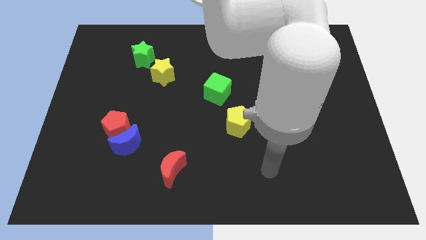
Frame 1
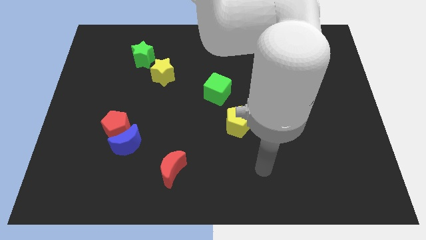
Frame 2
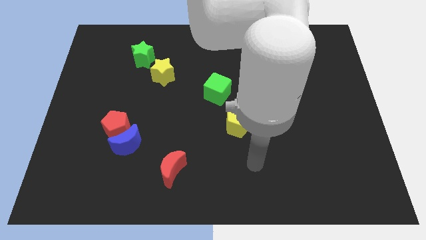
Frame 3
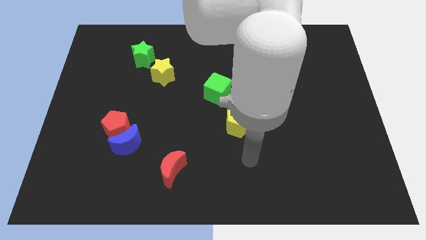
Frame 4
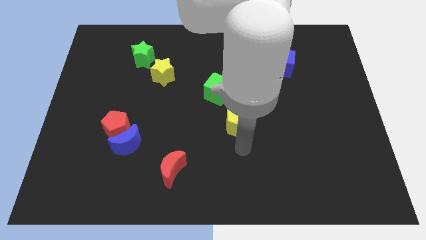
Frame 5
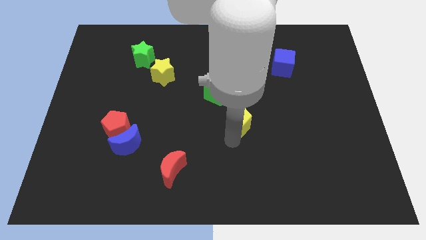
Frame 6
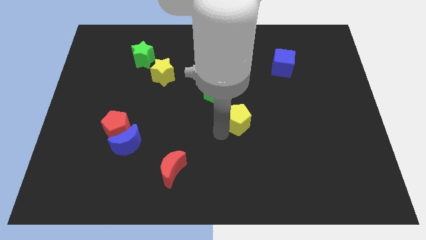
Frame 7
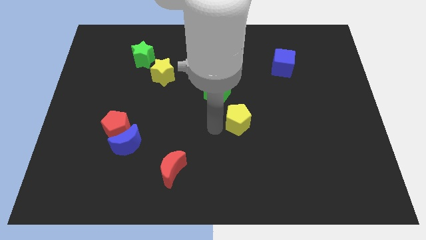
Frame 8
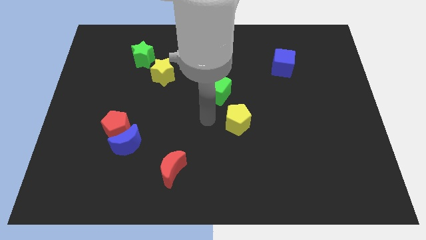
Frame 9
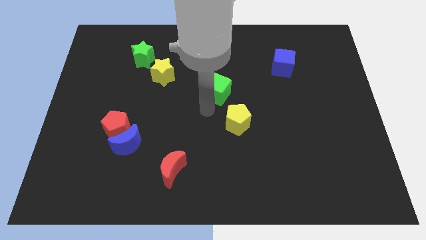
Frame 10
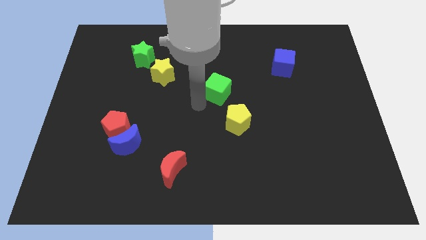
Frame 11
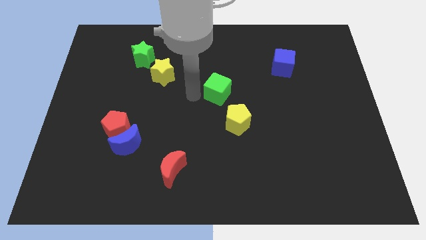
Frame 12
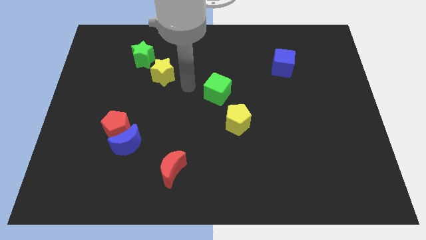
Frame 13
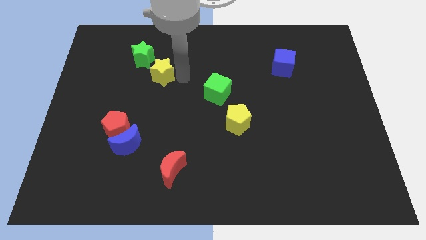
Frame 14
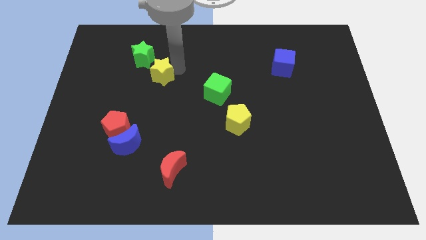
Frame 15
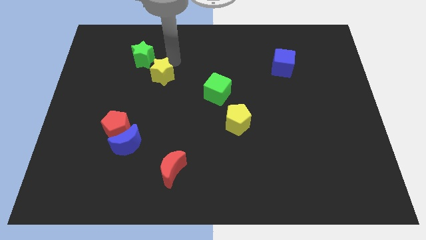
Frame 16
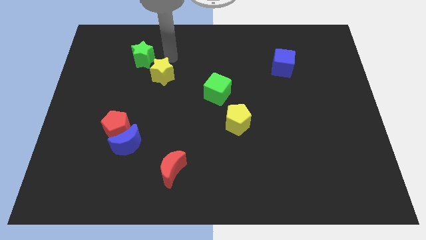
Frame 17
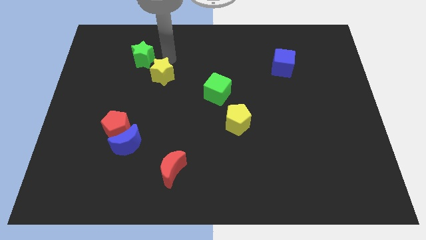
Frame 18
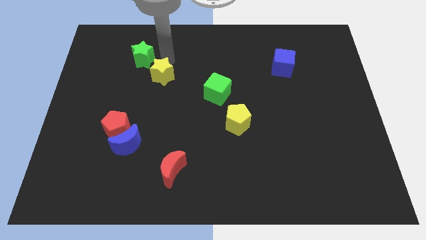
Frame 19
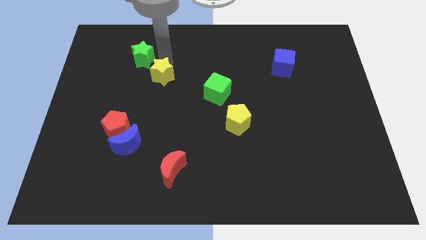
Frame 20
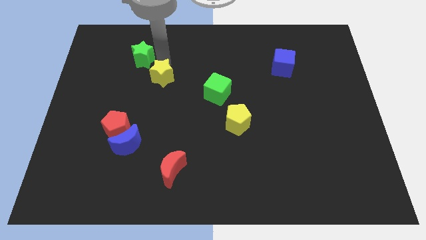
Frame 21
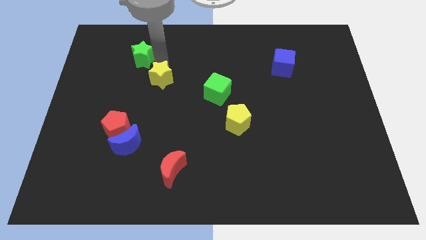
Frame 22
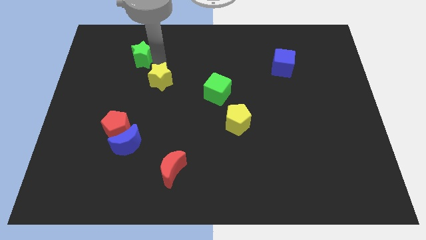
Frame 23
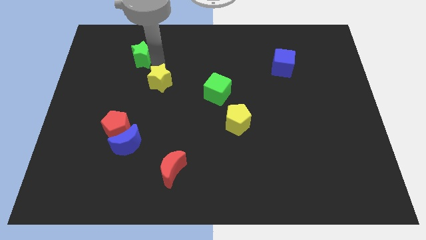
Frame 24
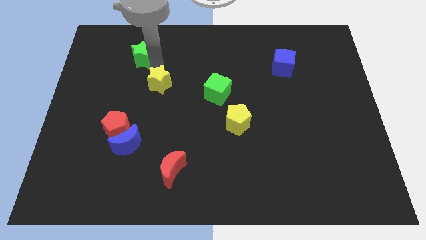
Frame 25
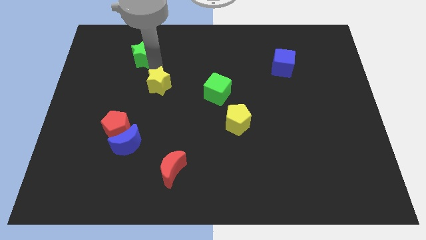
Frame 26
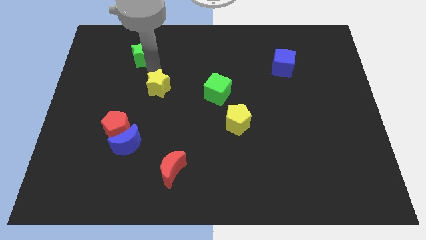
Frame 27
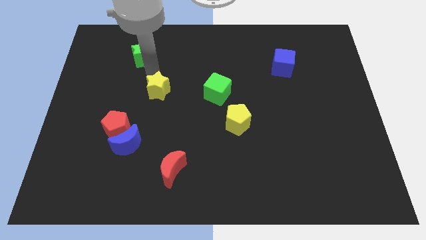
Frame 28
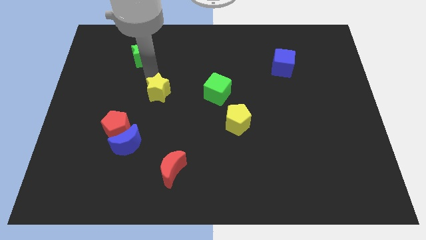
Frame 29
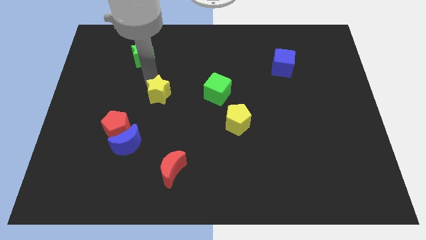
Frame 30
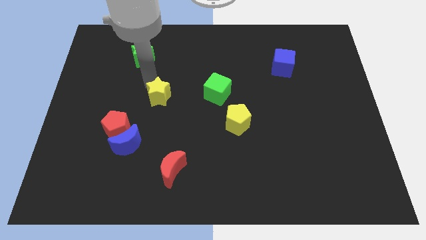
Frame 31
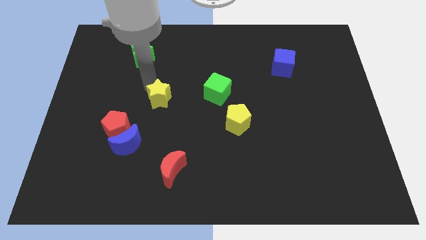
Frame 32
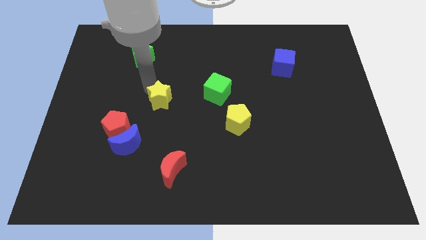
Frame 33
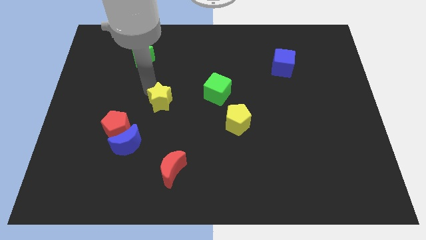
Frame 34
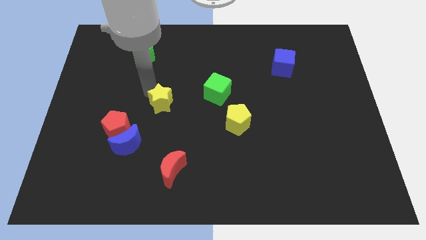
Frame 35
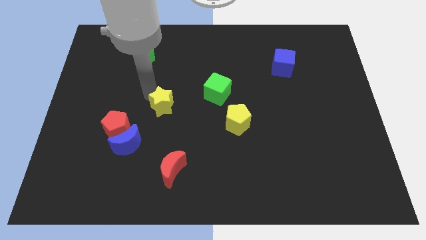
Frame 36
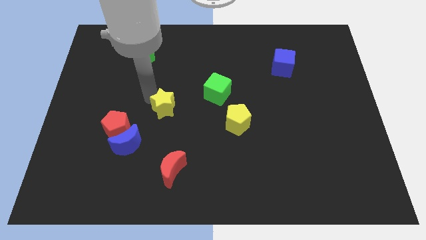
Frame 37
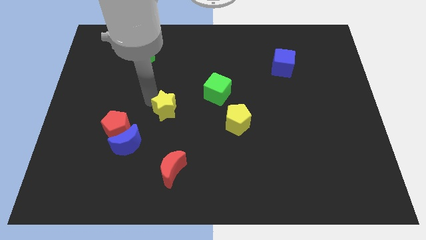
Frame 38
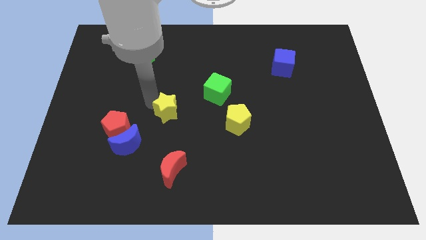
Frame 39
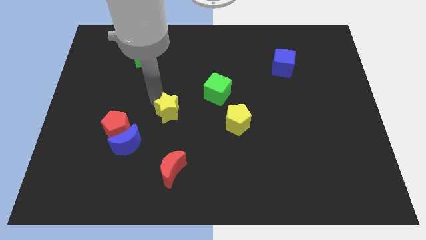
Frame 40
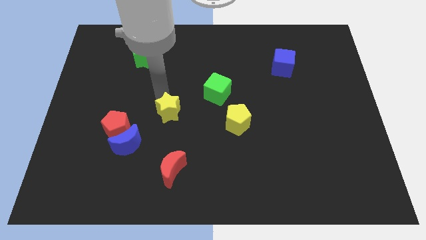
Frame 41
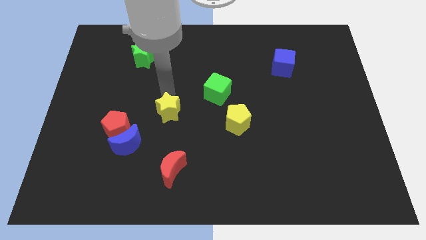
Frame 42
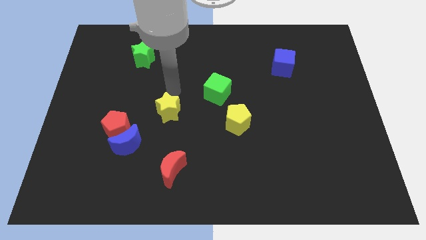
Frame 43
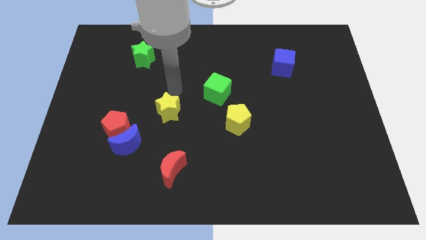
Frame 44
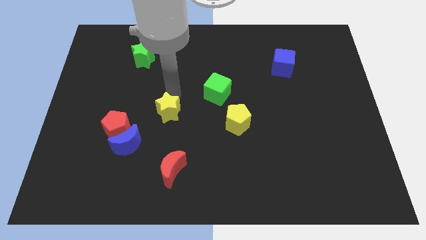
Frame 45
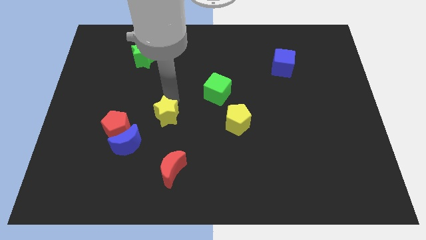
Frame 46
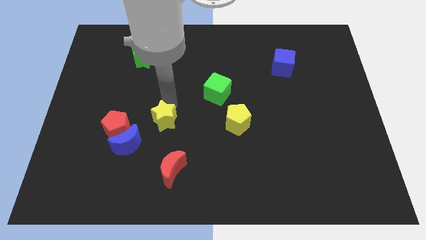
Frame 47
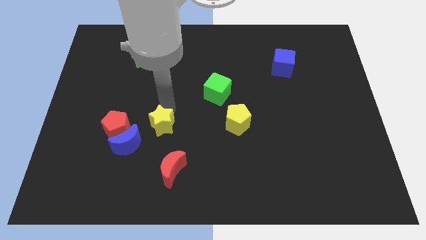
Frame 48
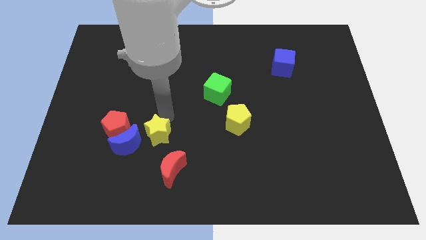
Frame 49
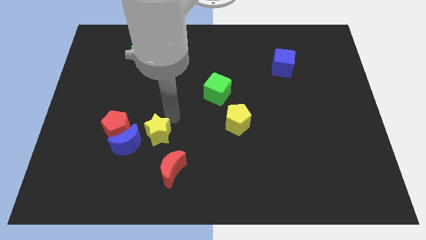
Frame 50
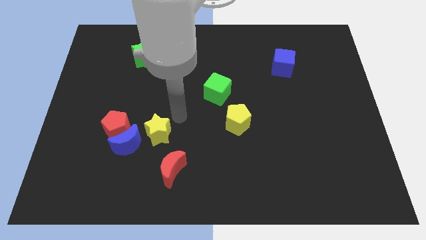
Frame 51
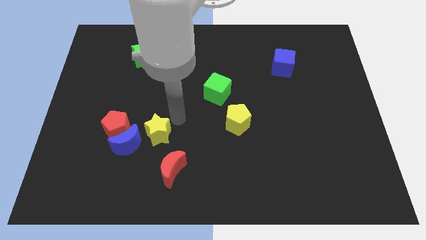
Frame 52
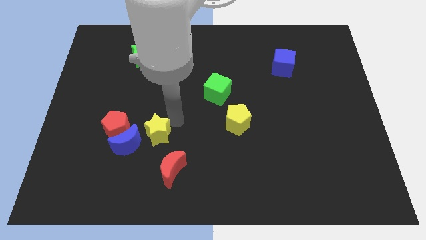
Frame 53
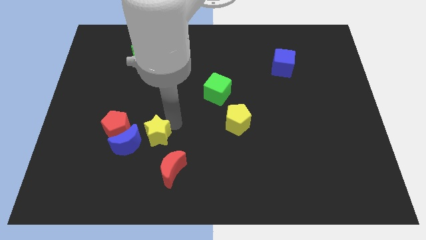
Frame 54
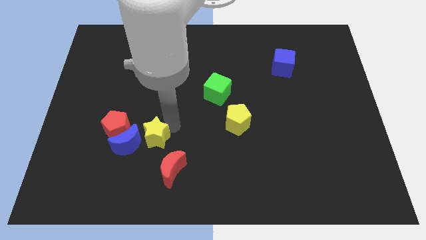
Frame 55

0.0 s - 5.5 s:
put the yellow star to the bottom right of the red pentagon

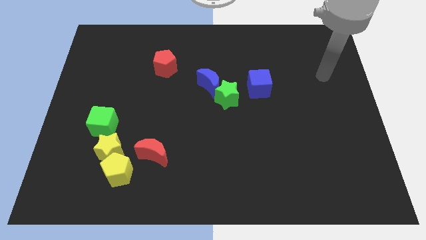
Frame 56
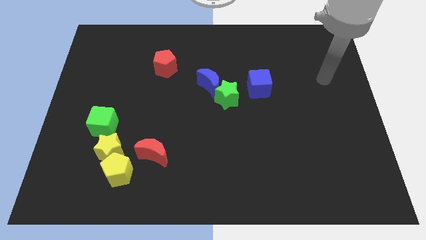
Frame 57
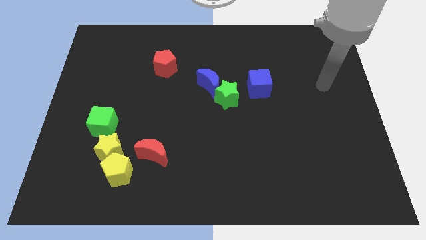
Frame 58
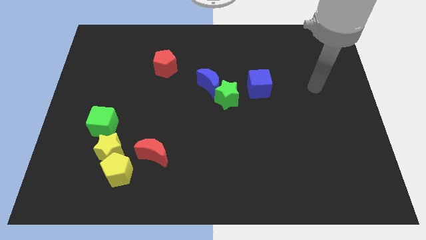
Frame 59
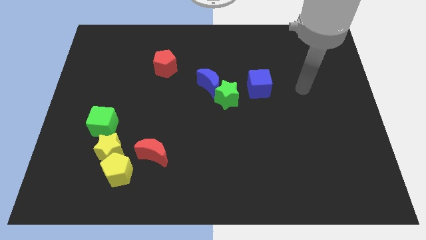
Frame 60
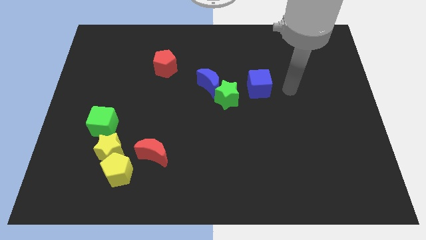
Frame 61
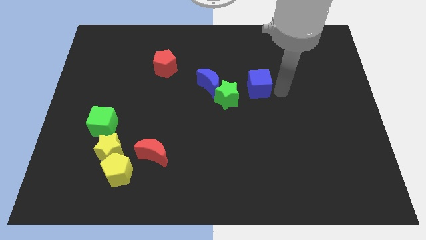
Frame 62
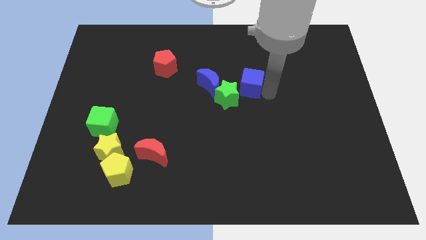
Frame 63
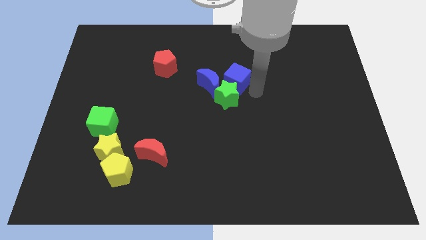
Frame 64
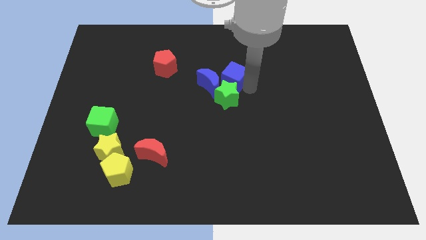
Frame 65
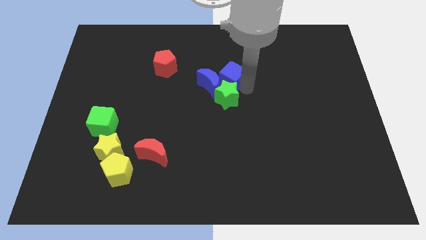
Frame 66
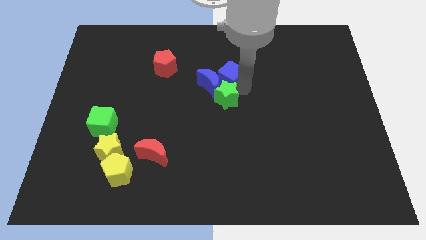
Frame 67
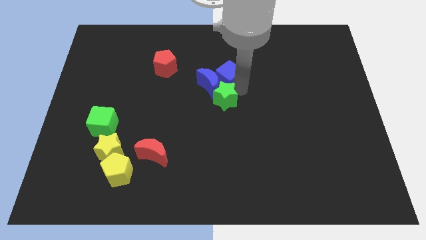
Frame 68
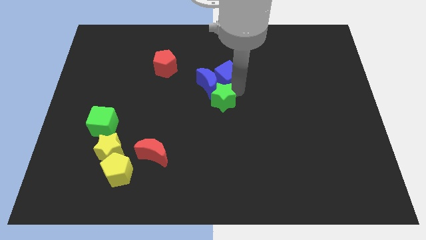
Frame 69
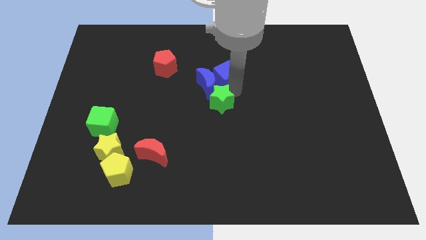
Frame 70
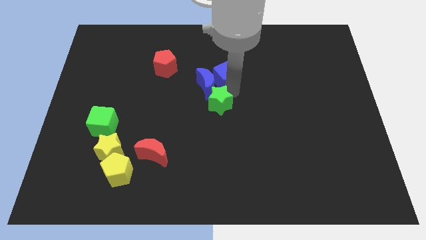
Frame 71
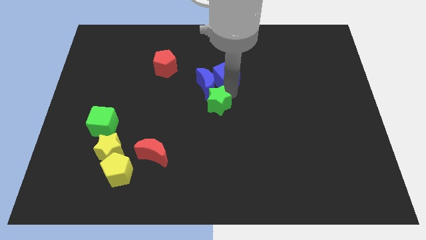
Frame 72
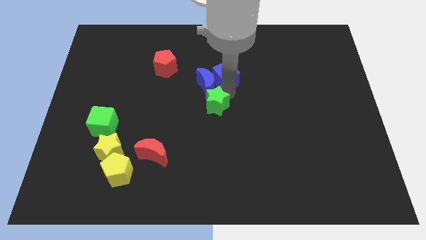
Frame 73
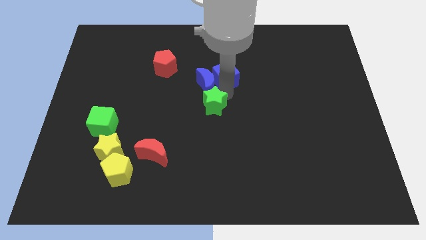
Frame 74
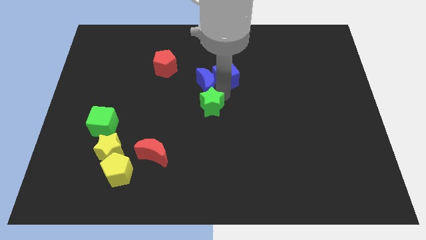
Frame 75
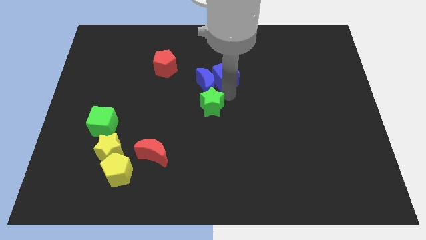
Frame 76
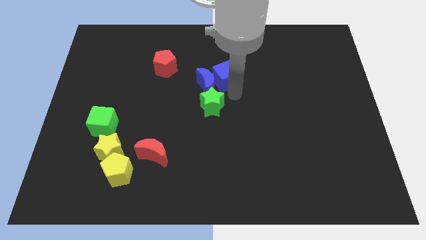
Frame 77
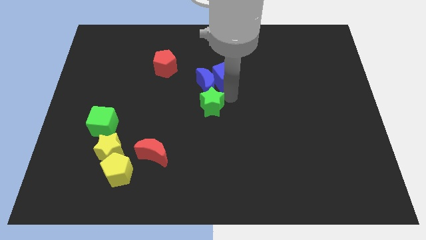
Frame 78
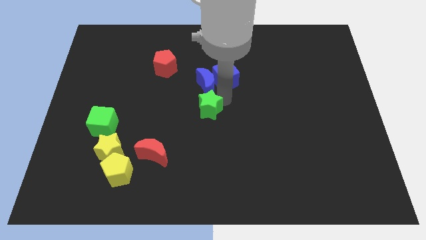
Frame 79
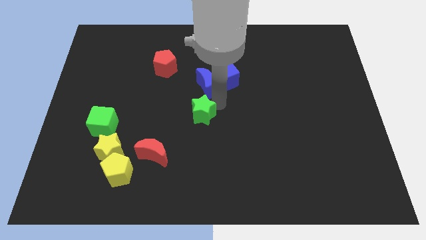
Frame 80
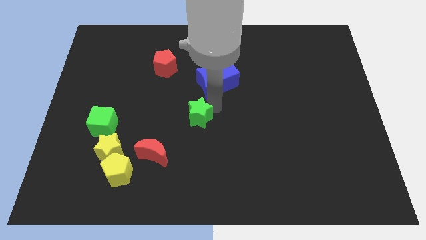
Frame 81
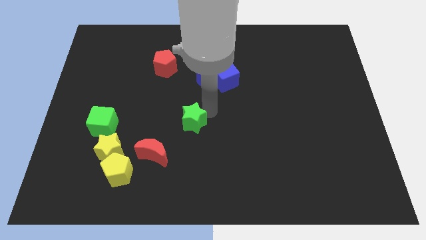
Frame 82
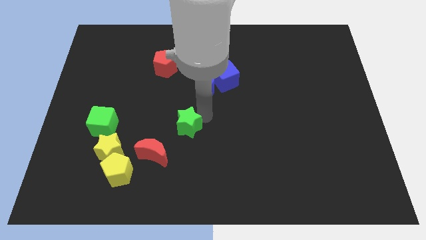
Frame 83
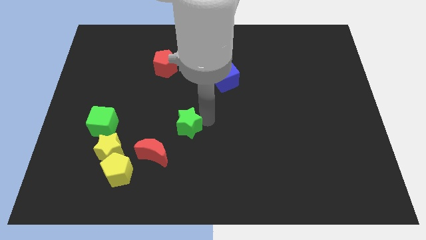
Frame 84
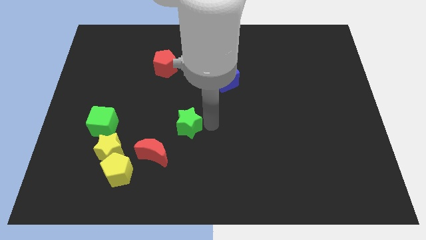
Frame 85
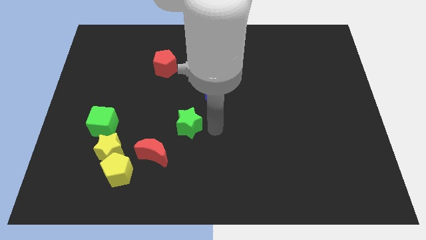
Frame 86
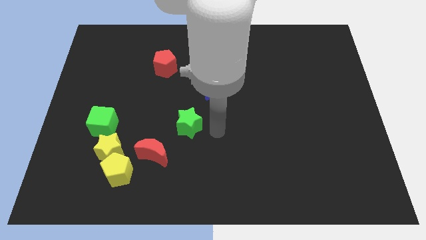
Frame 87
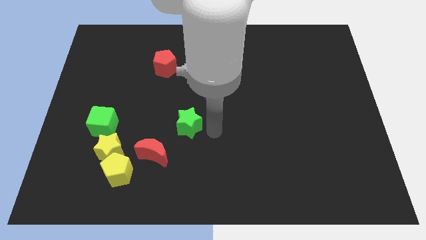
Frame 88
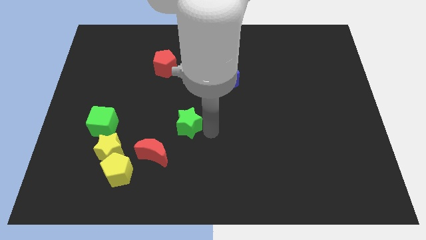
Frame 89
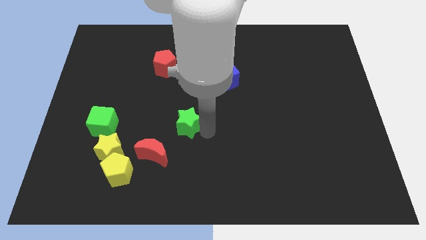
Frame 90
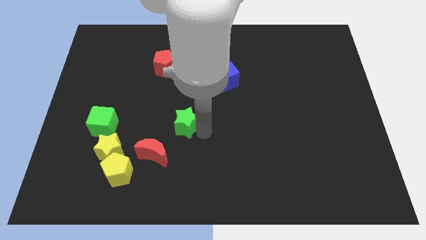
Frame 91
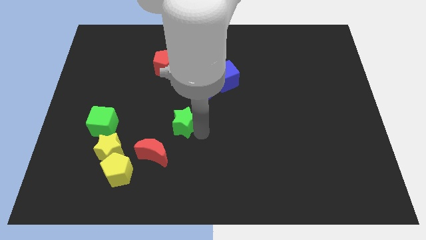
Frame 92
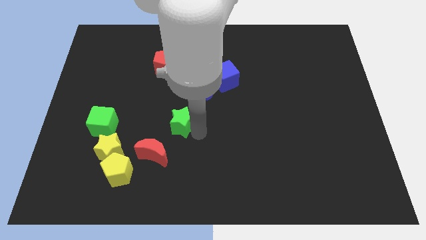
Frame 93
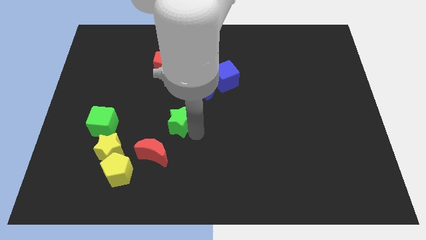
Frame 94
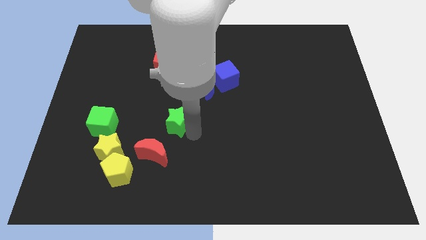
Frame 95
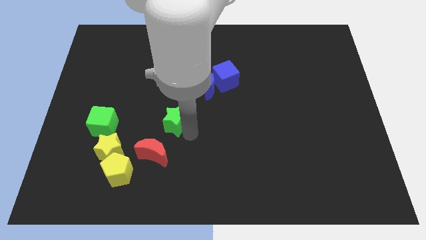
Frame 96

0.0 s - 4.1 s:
put the green star to the right of the green cube
